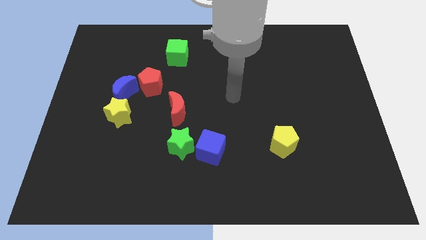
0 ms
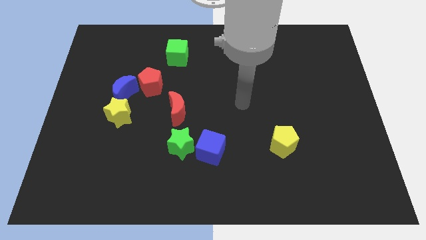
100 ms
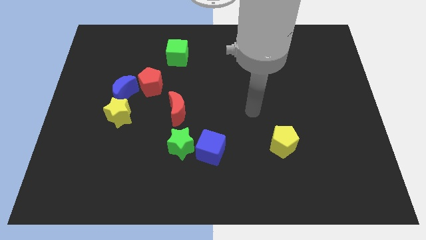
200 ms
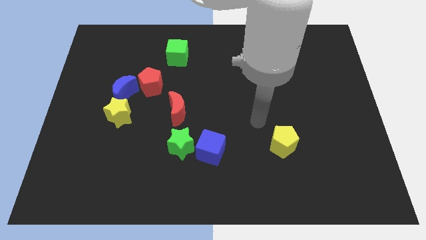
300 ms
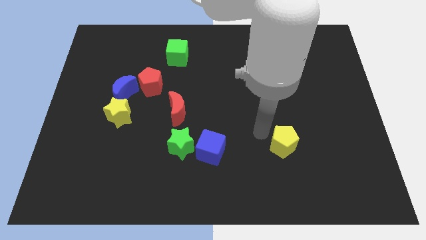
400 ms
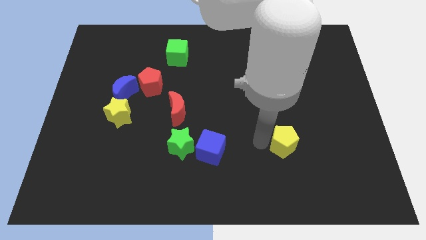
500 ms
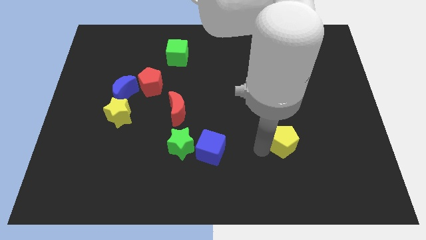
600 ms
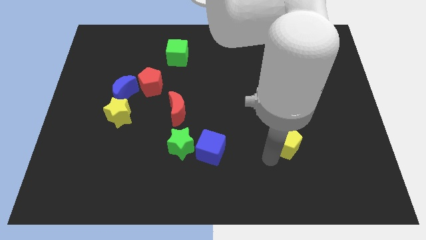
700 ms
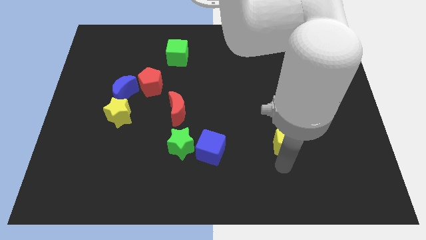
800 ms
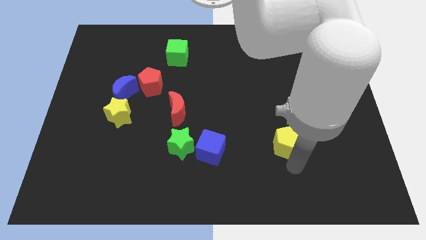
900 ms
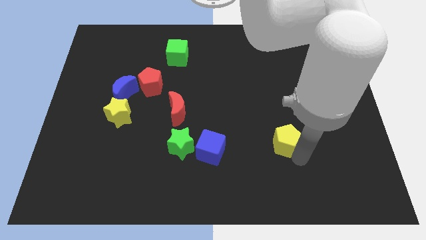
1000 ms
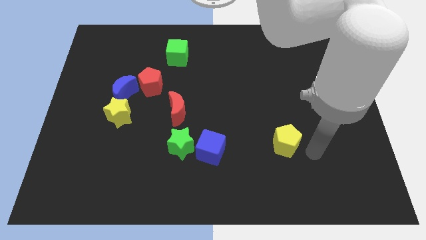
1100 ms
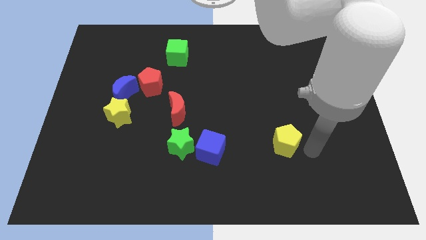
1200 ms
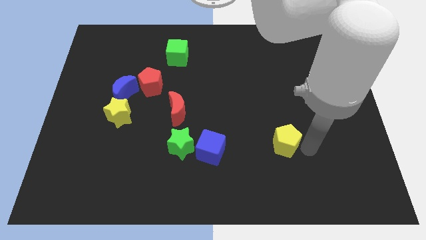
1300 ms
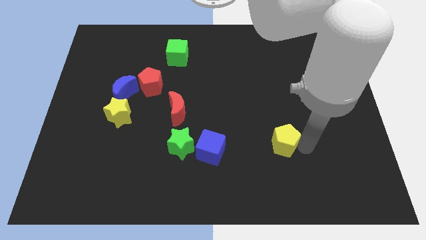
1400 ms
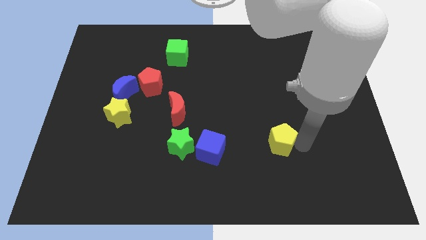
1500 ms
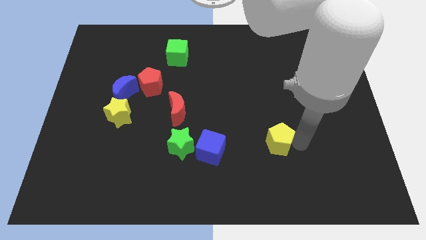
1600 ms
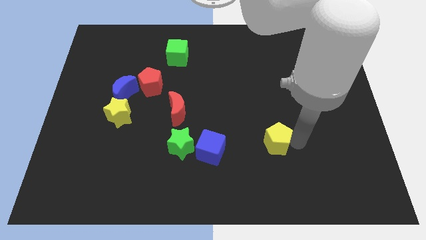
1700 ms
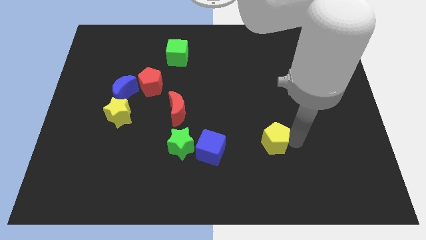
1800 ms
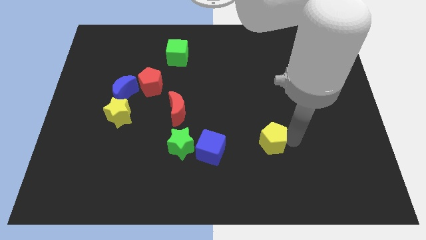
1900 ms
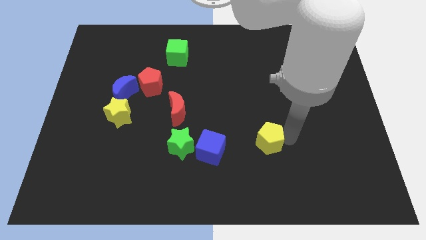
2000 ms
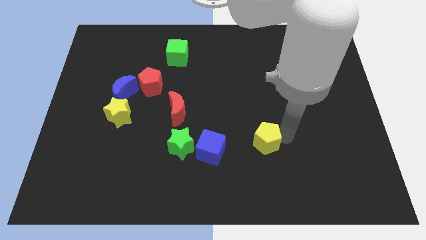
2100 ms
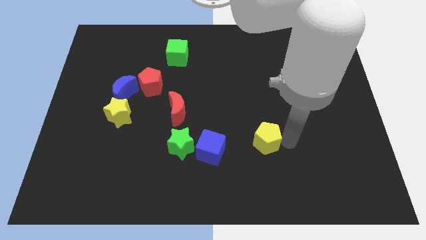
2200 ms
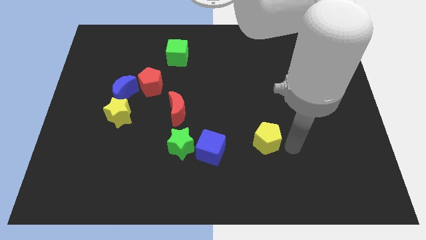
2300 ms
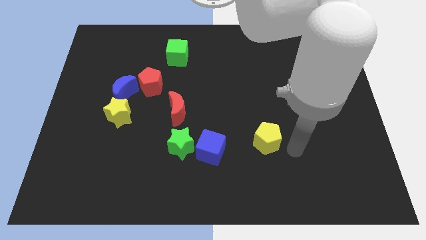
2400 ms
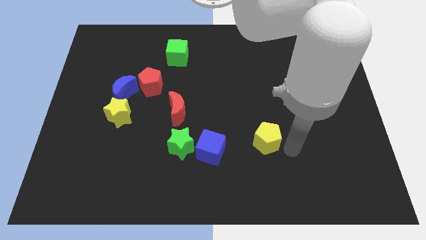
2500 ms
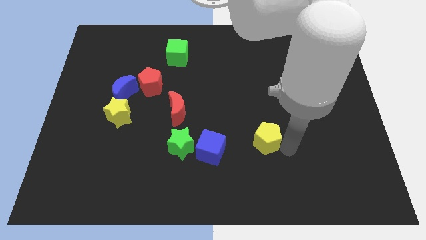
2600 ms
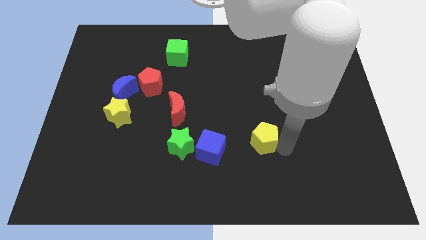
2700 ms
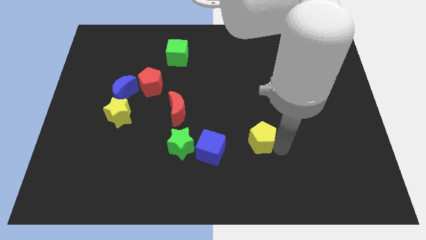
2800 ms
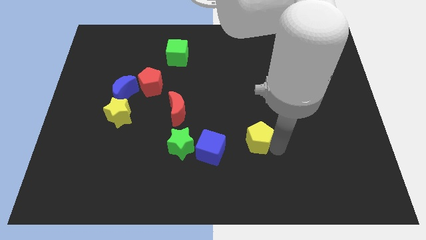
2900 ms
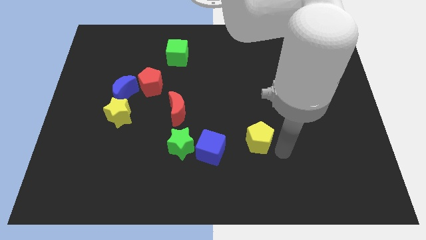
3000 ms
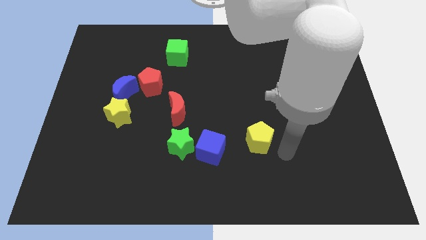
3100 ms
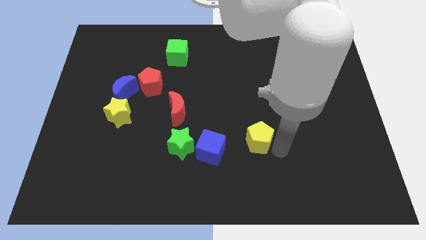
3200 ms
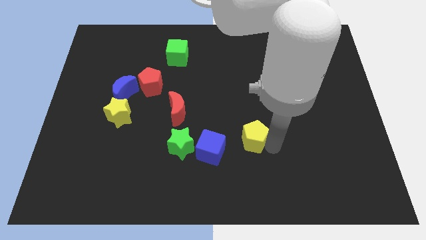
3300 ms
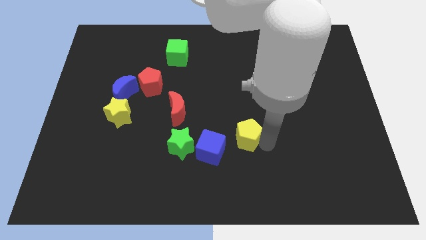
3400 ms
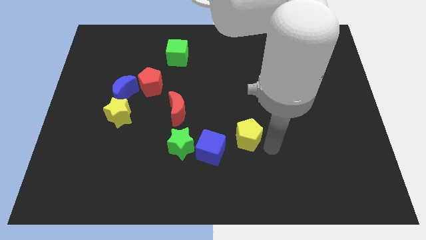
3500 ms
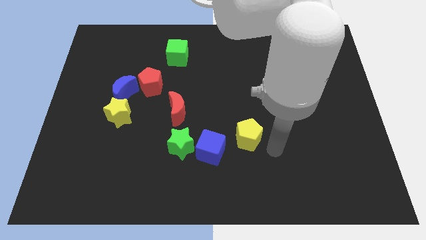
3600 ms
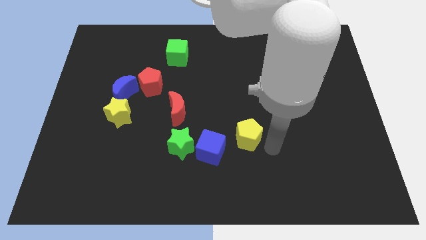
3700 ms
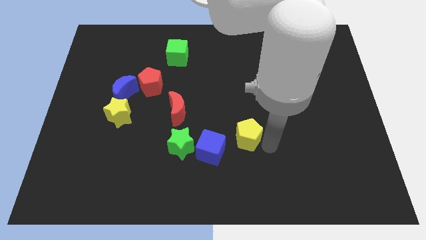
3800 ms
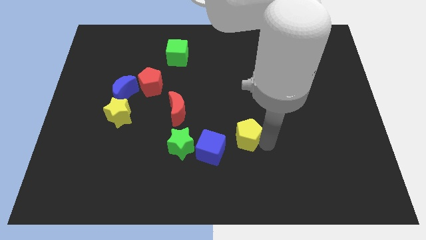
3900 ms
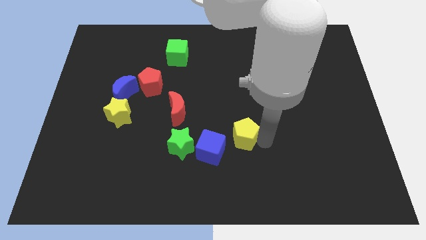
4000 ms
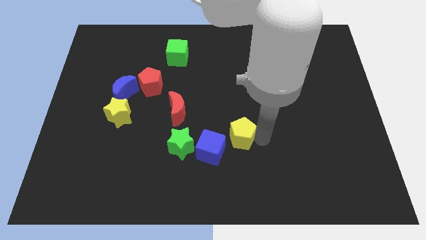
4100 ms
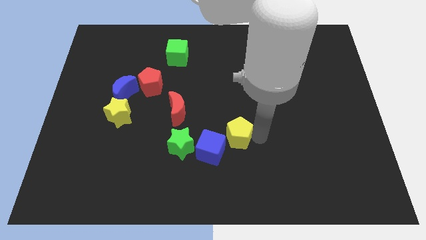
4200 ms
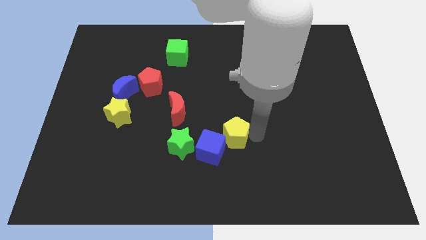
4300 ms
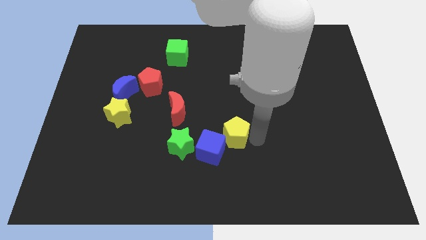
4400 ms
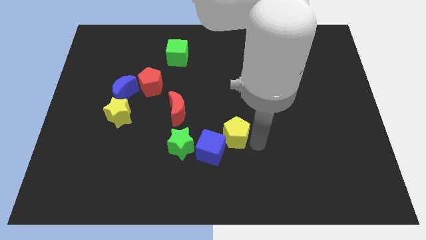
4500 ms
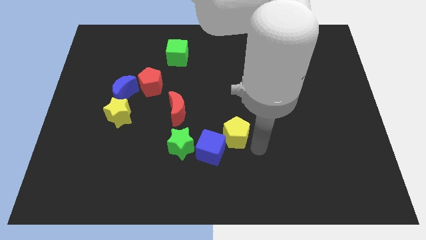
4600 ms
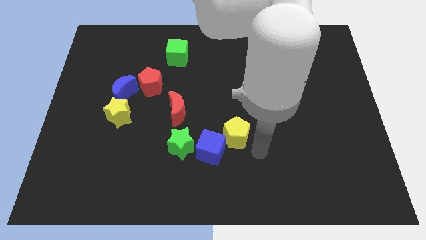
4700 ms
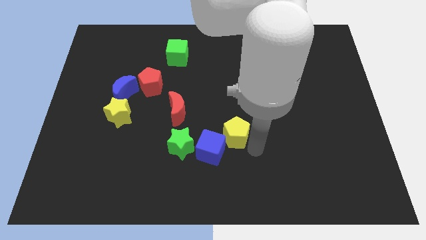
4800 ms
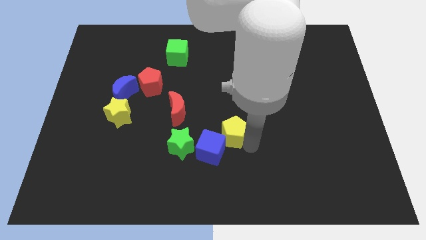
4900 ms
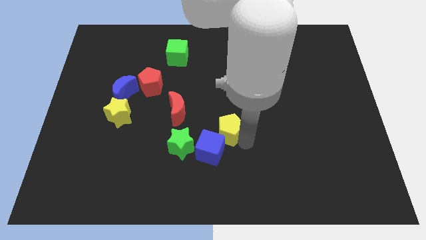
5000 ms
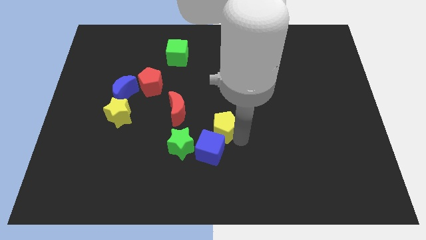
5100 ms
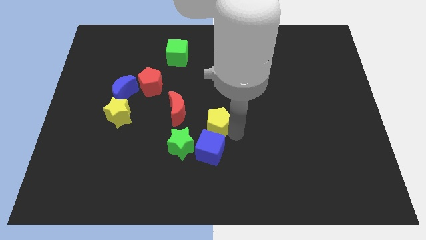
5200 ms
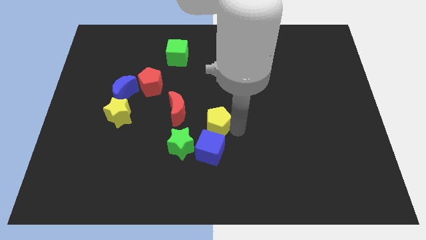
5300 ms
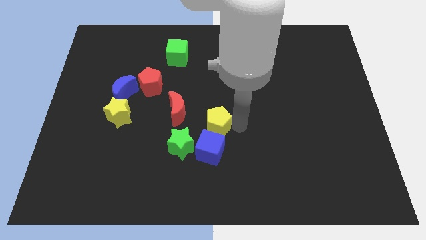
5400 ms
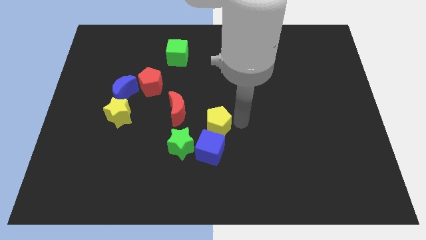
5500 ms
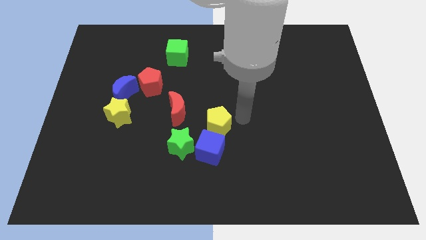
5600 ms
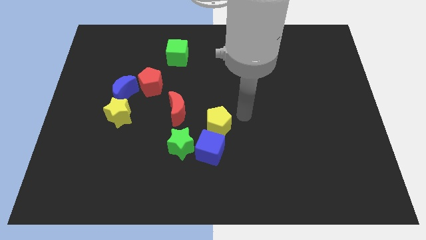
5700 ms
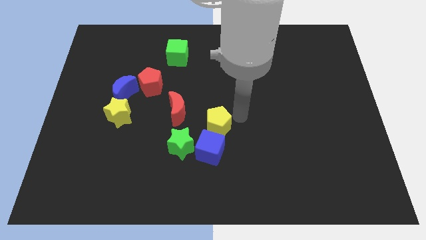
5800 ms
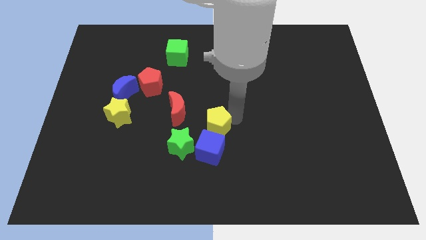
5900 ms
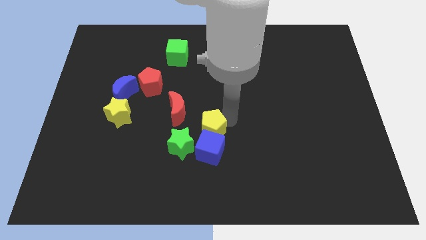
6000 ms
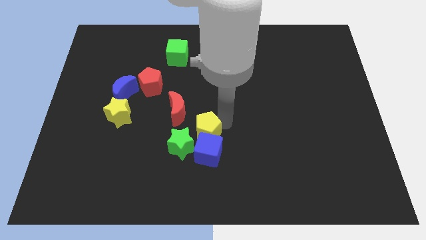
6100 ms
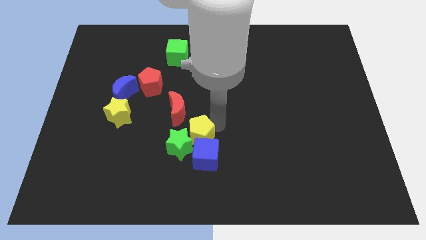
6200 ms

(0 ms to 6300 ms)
move the yellow pentagon next to the green star

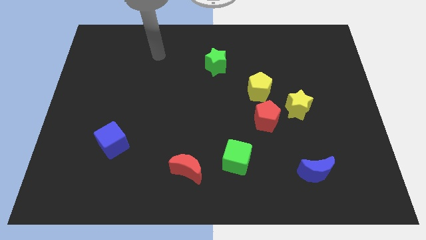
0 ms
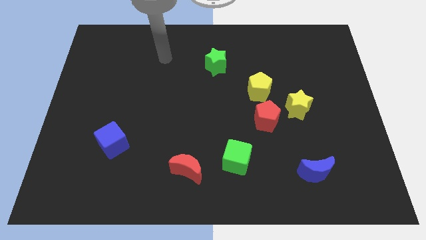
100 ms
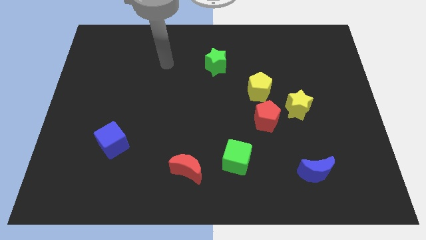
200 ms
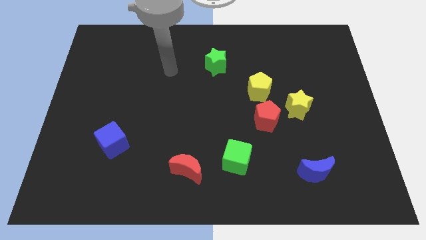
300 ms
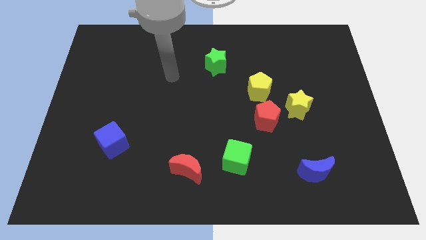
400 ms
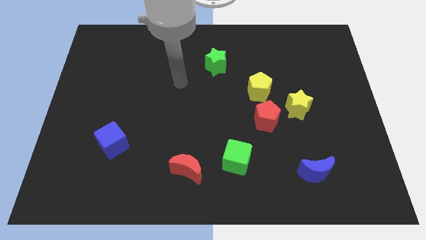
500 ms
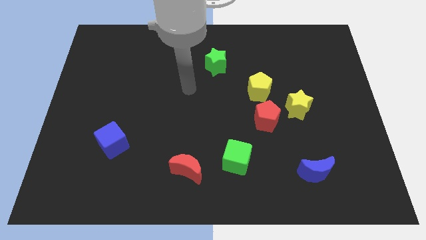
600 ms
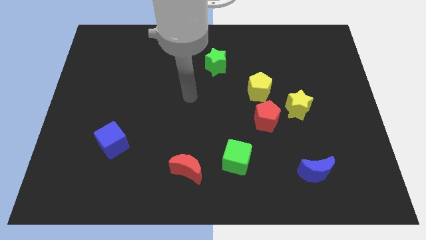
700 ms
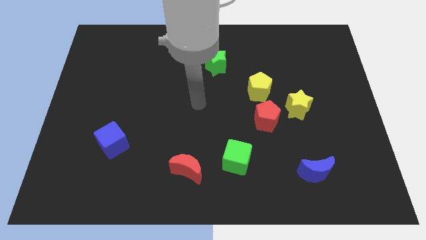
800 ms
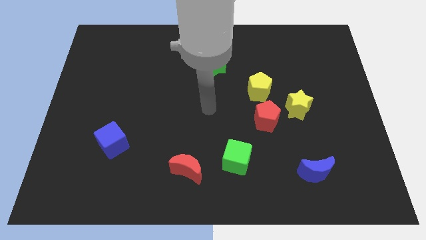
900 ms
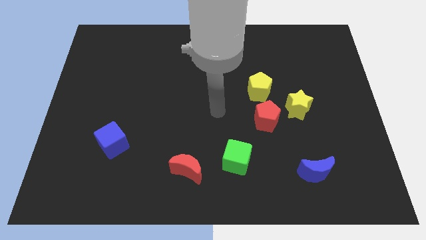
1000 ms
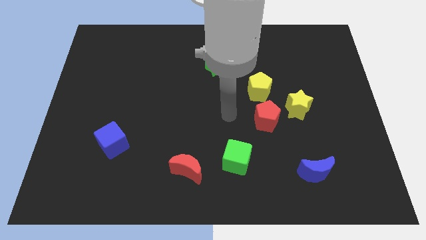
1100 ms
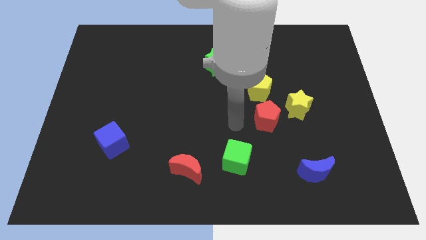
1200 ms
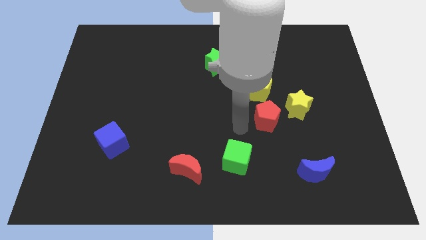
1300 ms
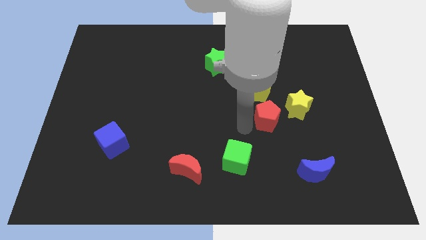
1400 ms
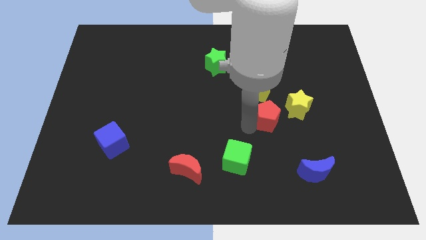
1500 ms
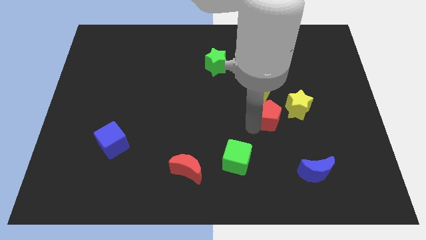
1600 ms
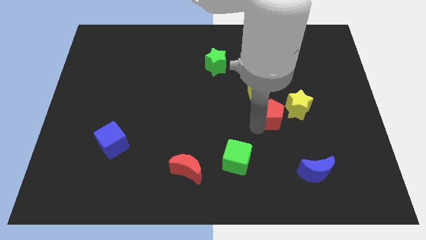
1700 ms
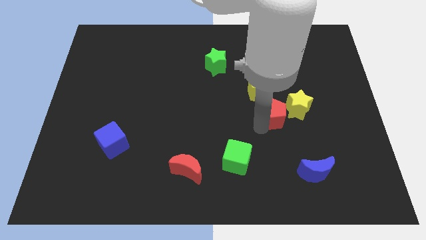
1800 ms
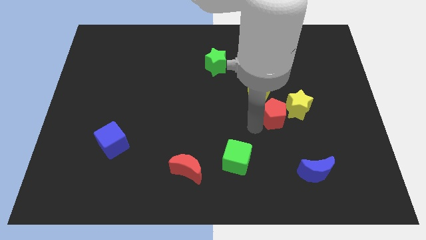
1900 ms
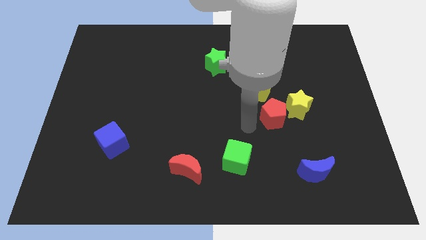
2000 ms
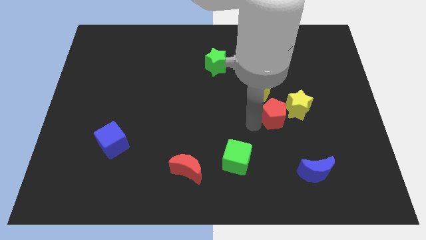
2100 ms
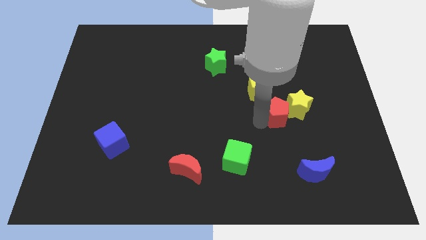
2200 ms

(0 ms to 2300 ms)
put the red pentagon next to the yellow star
